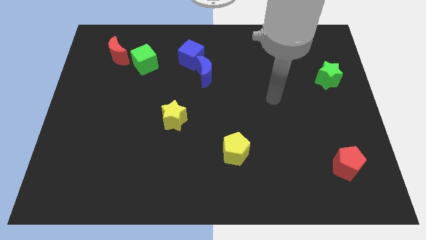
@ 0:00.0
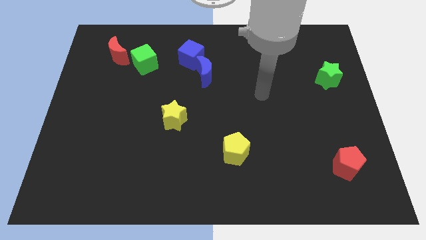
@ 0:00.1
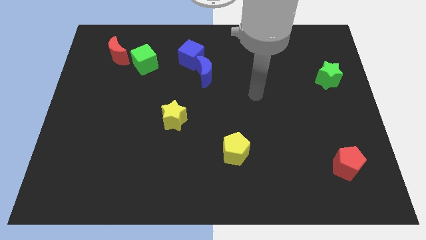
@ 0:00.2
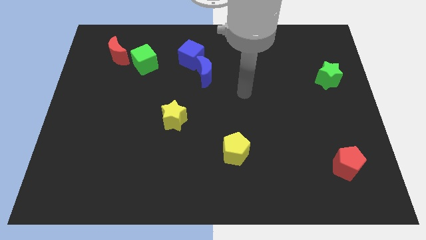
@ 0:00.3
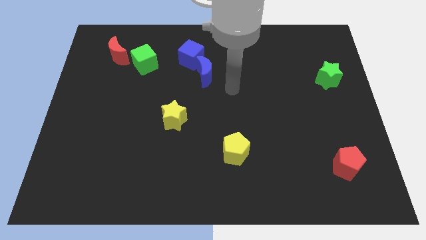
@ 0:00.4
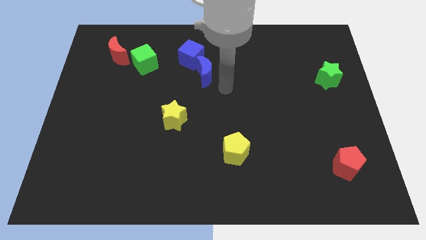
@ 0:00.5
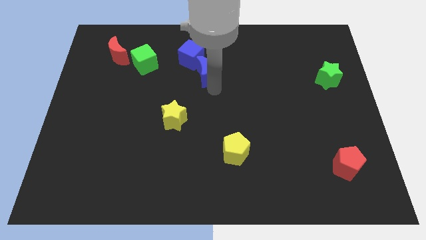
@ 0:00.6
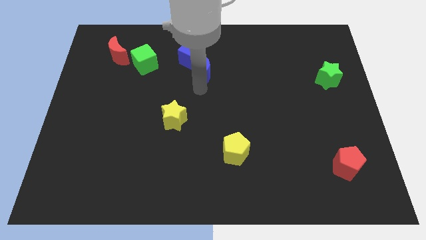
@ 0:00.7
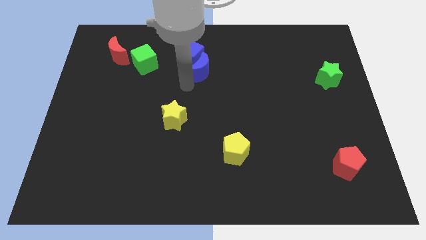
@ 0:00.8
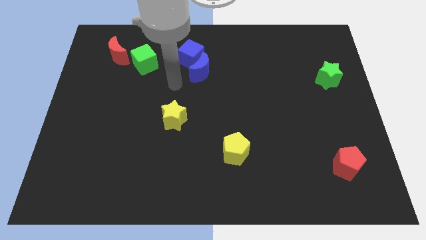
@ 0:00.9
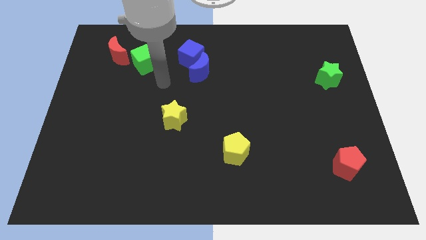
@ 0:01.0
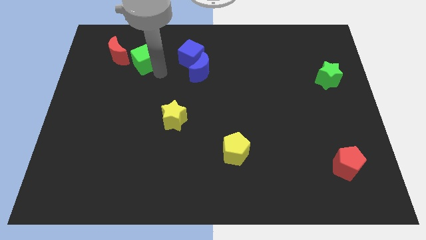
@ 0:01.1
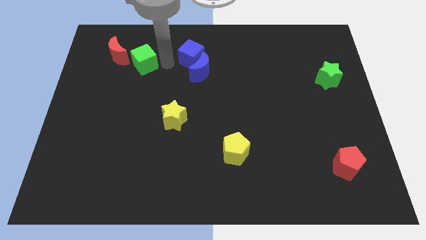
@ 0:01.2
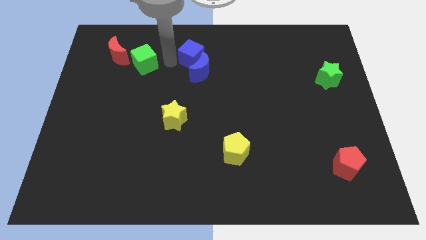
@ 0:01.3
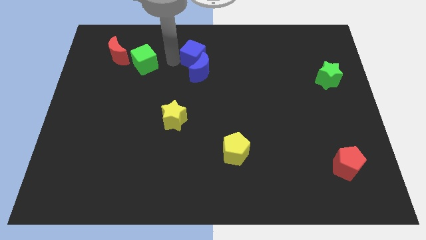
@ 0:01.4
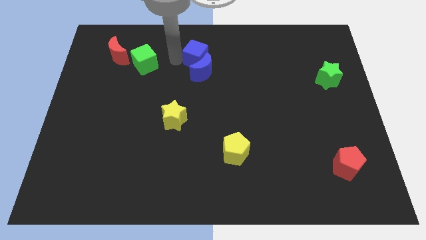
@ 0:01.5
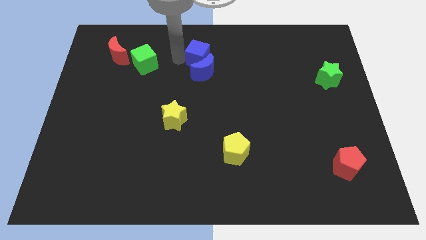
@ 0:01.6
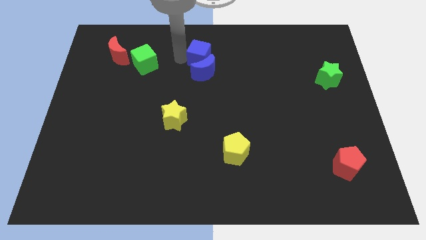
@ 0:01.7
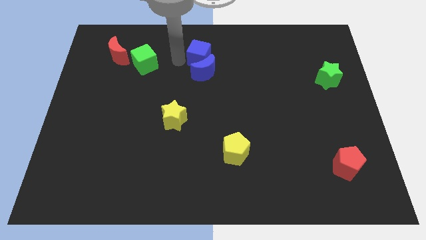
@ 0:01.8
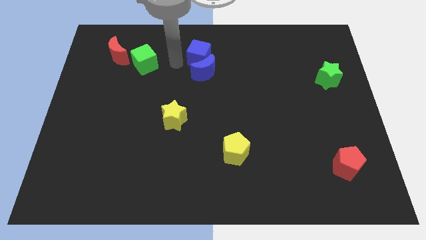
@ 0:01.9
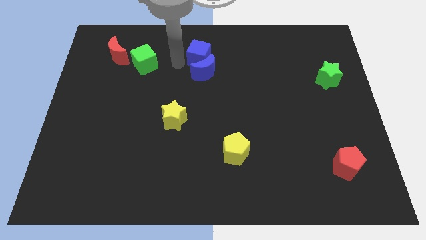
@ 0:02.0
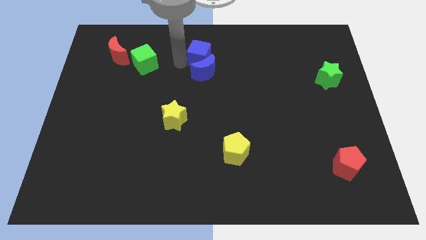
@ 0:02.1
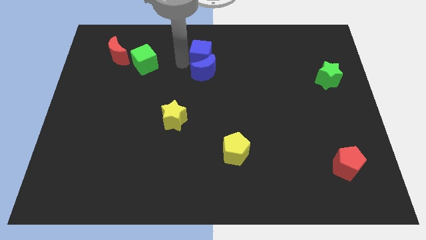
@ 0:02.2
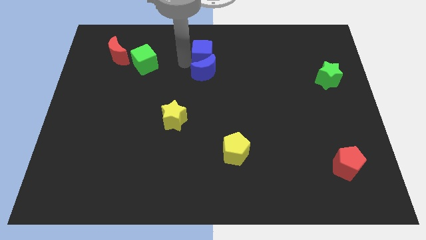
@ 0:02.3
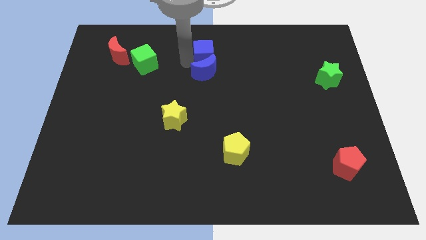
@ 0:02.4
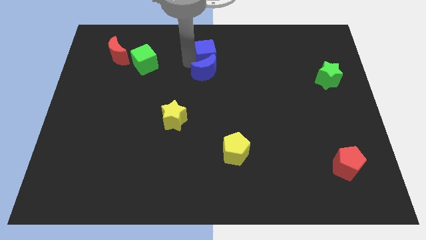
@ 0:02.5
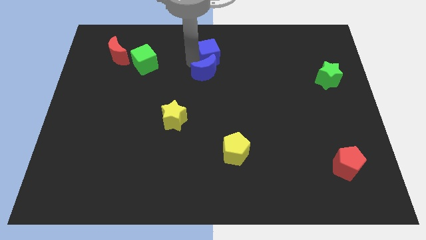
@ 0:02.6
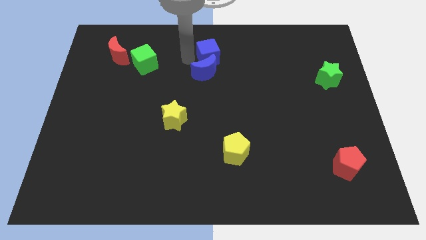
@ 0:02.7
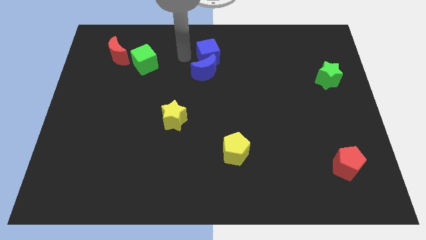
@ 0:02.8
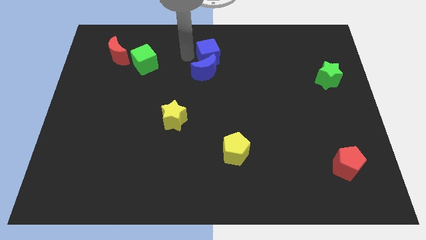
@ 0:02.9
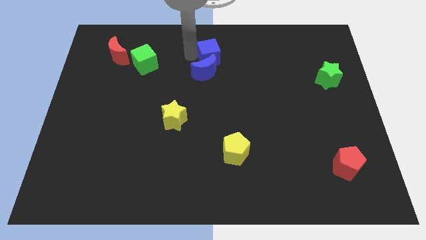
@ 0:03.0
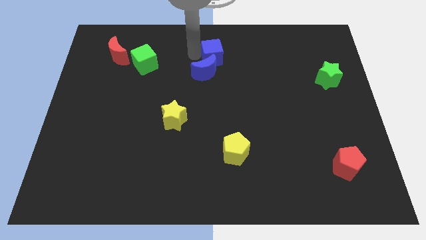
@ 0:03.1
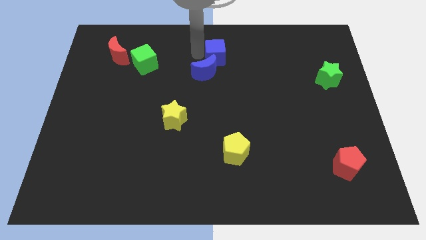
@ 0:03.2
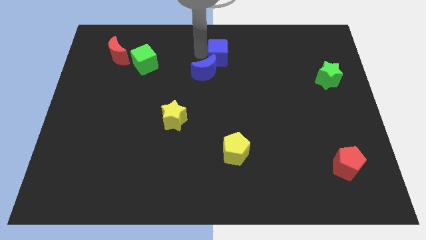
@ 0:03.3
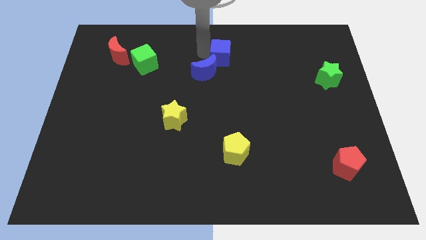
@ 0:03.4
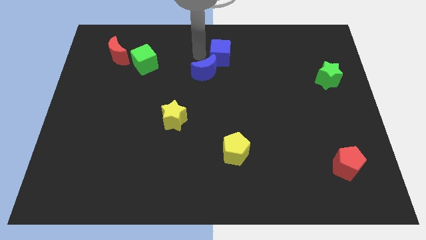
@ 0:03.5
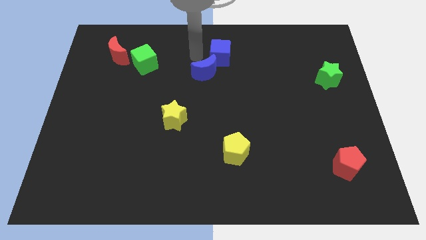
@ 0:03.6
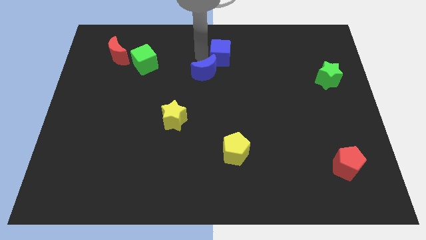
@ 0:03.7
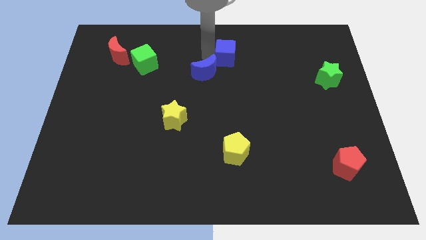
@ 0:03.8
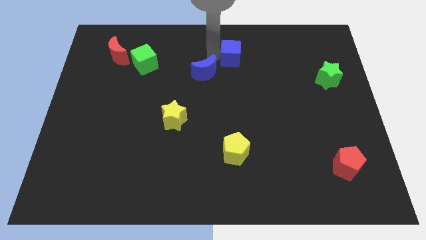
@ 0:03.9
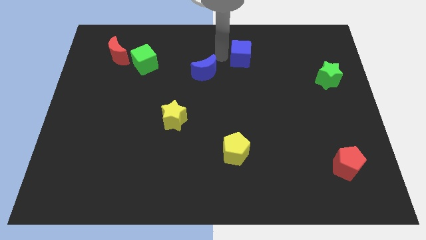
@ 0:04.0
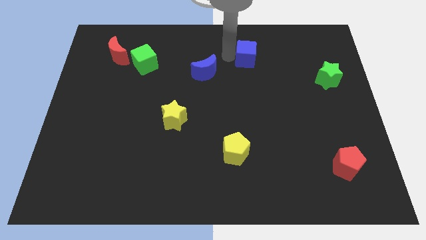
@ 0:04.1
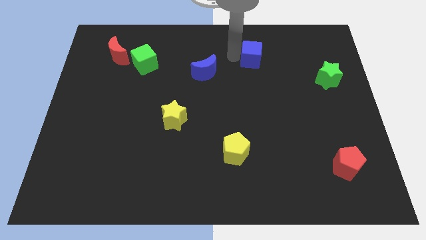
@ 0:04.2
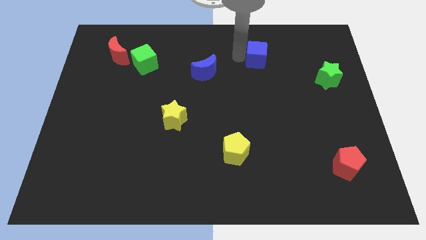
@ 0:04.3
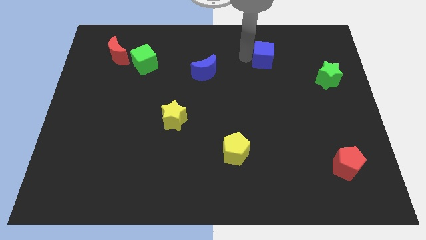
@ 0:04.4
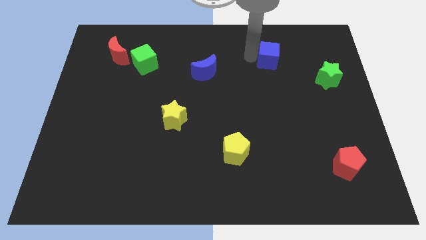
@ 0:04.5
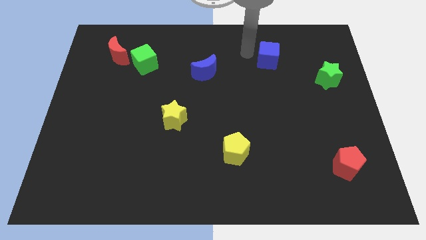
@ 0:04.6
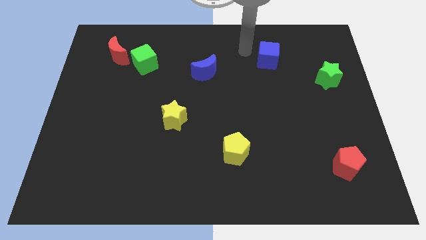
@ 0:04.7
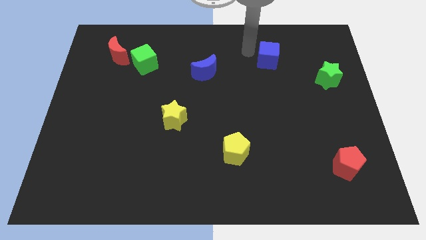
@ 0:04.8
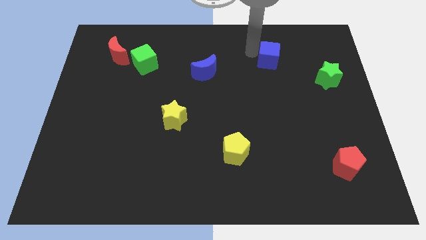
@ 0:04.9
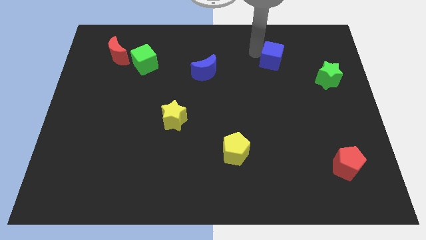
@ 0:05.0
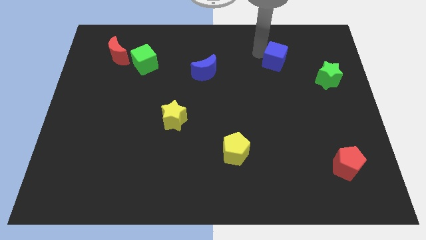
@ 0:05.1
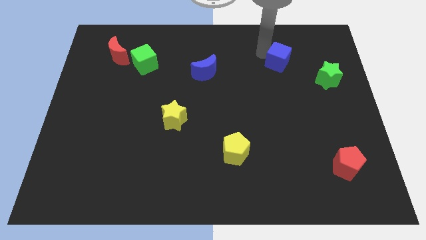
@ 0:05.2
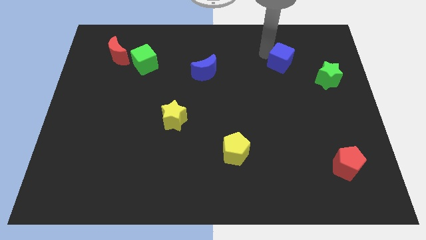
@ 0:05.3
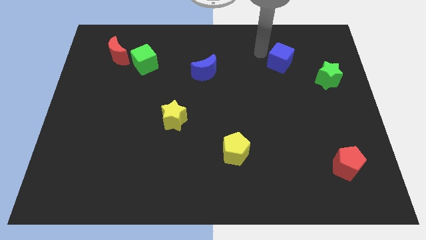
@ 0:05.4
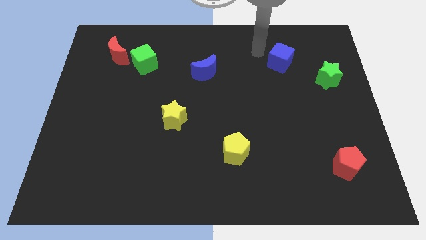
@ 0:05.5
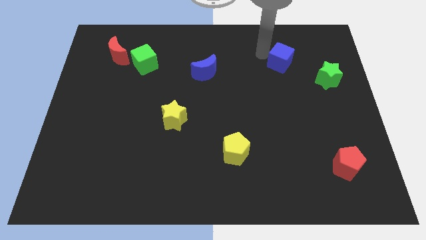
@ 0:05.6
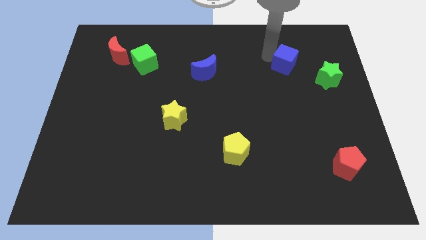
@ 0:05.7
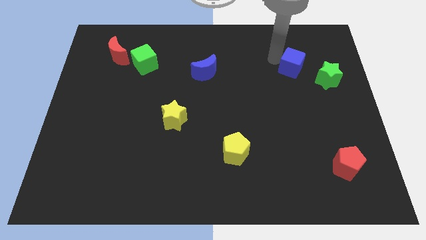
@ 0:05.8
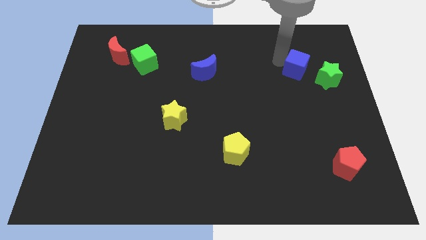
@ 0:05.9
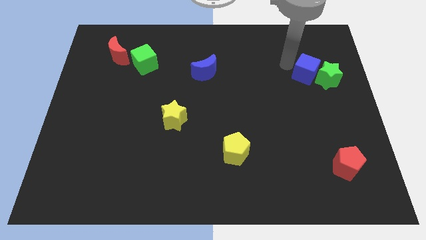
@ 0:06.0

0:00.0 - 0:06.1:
move the blue cube towards the green star

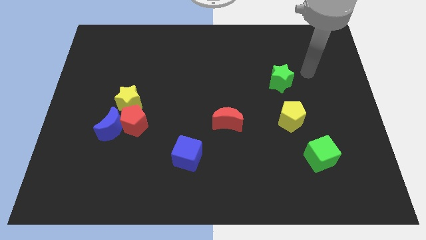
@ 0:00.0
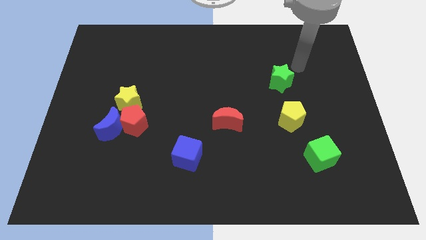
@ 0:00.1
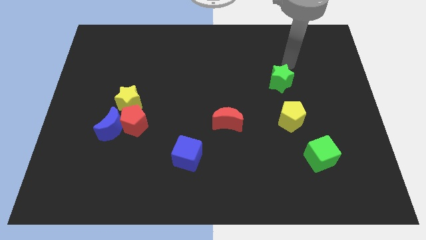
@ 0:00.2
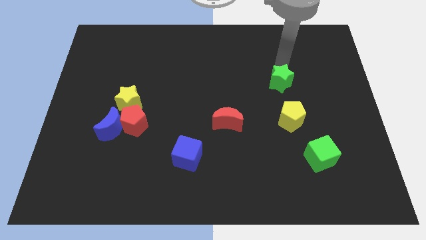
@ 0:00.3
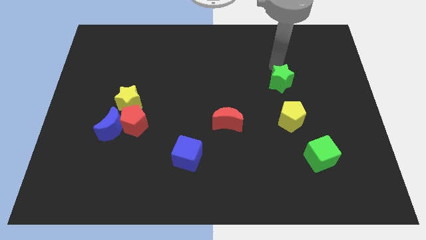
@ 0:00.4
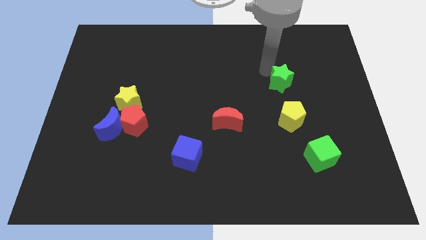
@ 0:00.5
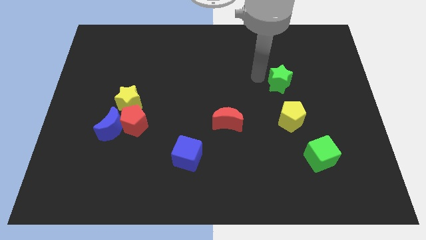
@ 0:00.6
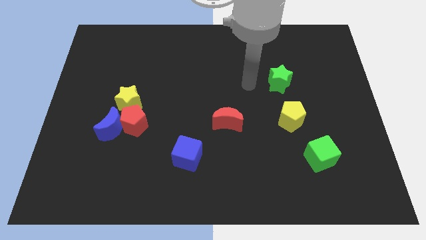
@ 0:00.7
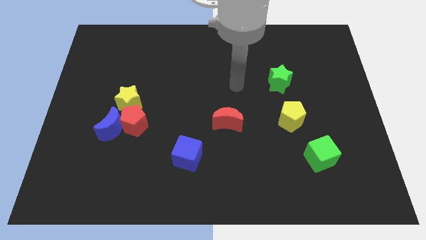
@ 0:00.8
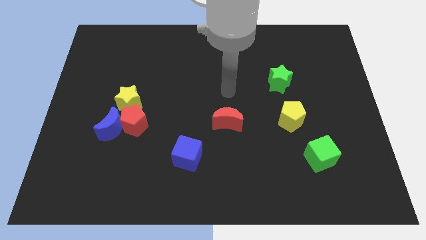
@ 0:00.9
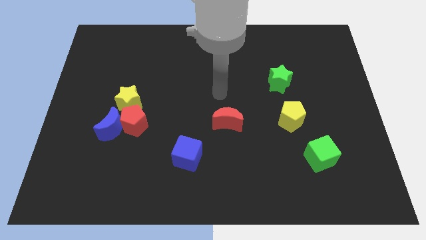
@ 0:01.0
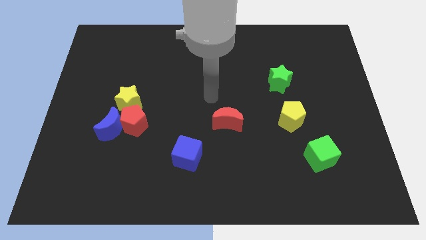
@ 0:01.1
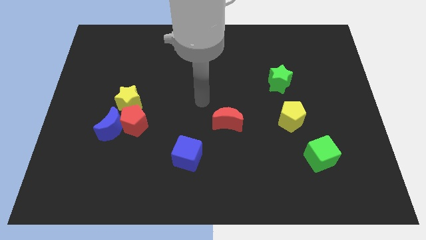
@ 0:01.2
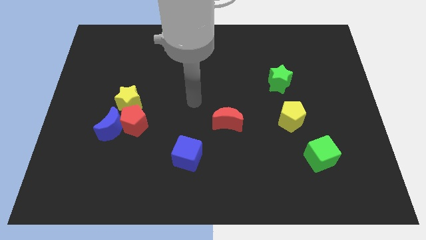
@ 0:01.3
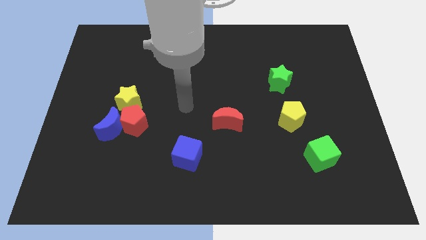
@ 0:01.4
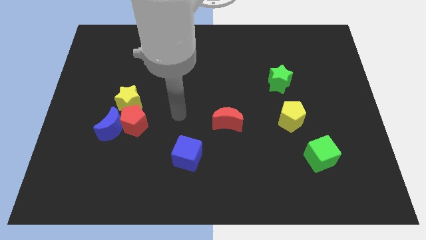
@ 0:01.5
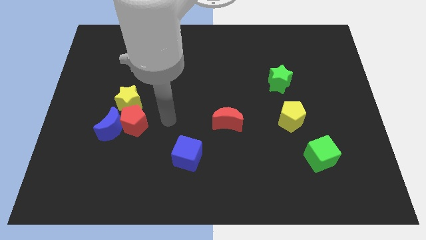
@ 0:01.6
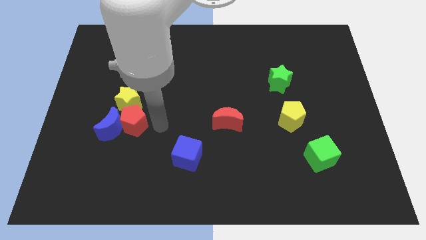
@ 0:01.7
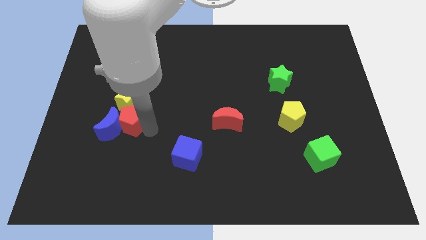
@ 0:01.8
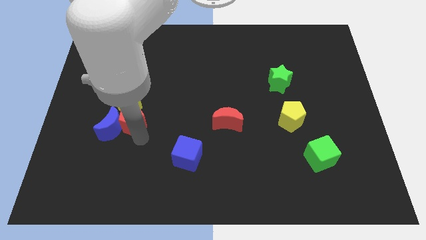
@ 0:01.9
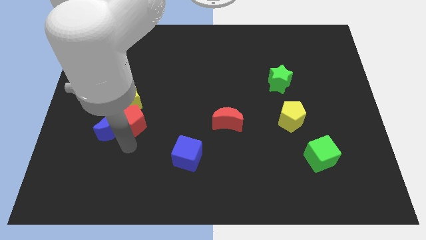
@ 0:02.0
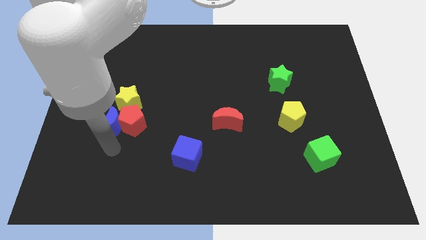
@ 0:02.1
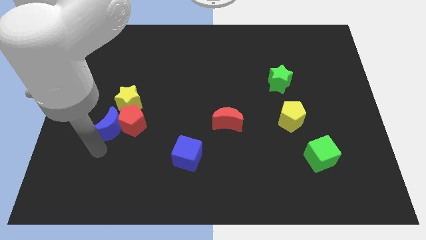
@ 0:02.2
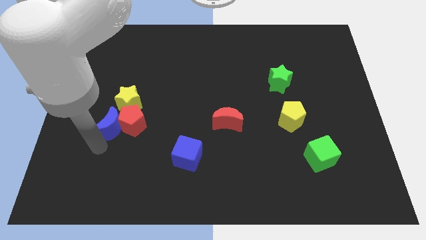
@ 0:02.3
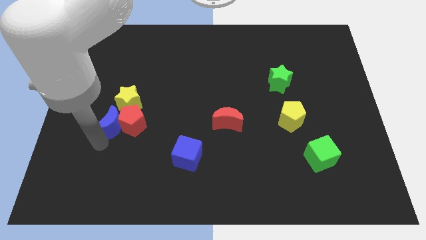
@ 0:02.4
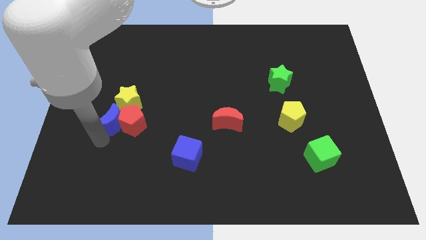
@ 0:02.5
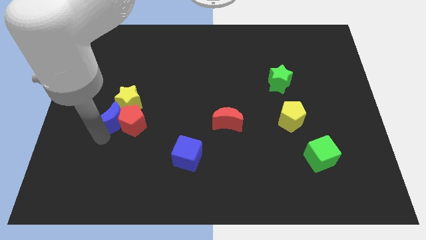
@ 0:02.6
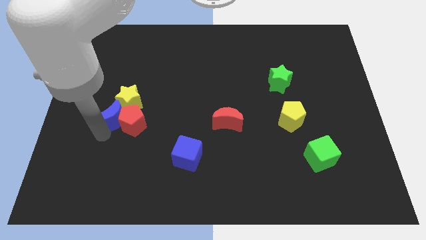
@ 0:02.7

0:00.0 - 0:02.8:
push the blue moon close to the yellow star
